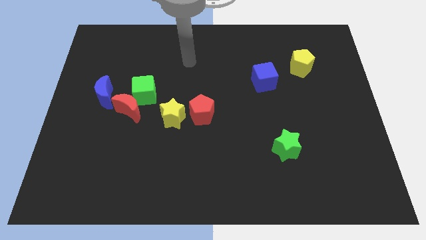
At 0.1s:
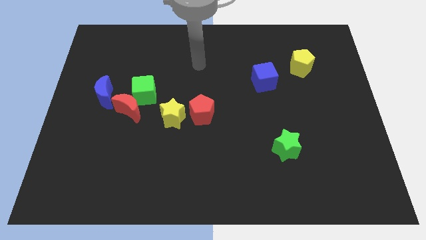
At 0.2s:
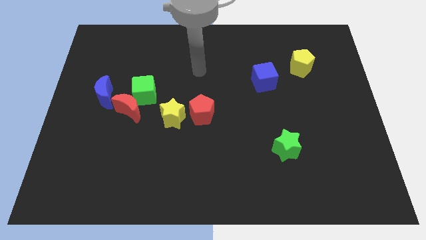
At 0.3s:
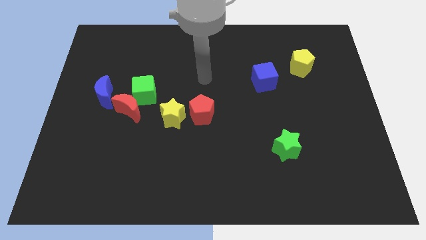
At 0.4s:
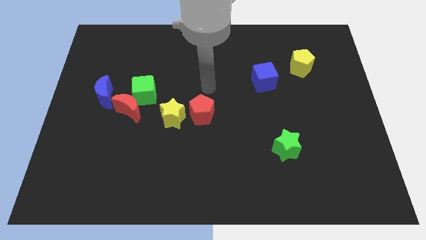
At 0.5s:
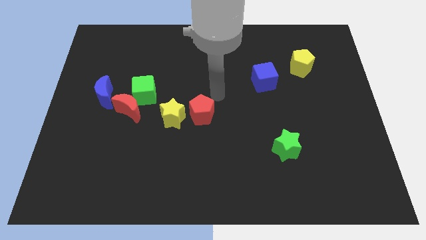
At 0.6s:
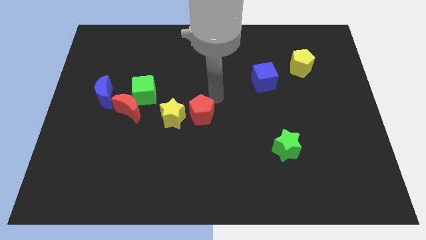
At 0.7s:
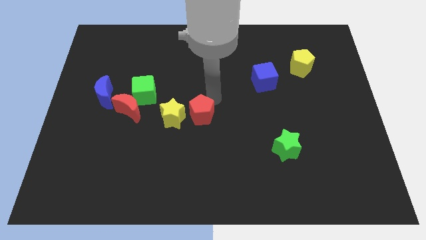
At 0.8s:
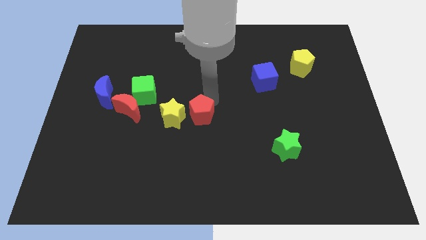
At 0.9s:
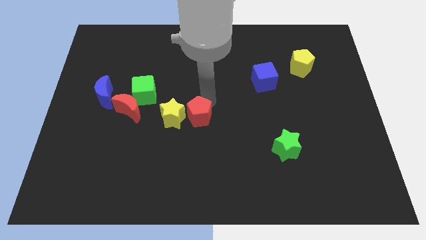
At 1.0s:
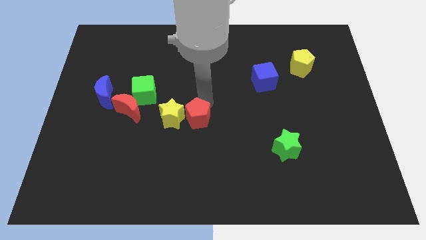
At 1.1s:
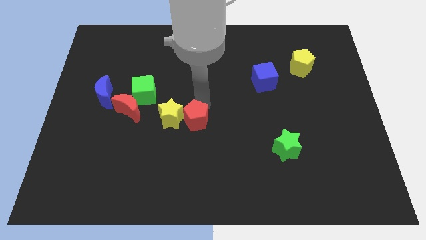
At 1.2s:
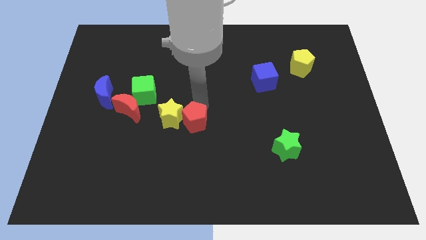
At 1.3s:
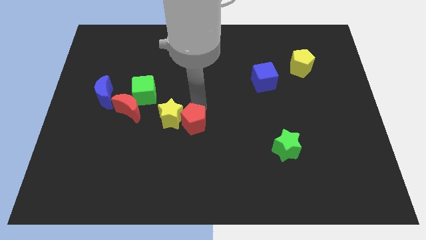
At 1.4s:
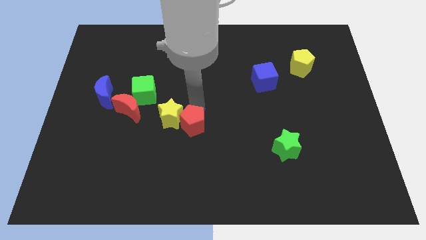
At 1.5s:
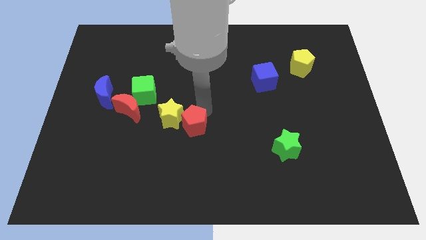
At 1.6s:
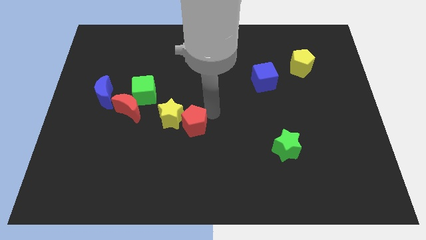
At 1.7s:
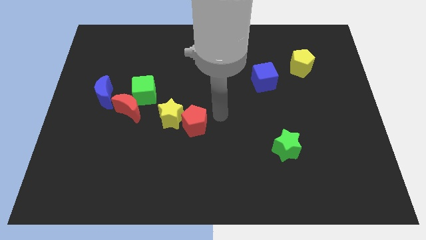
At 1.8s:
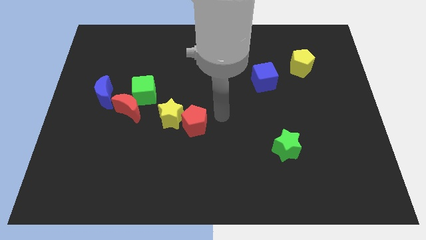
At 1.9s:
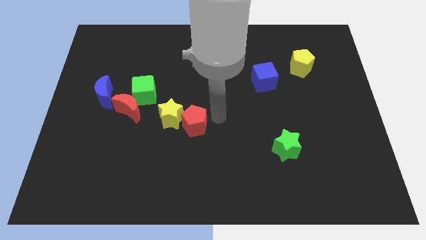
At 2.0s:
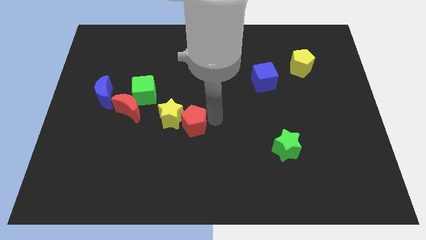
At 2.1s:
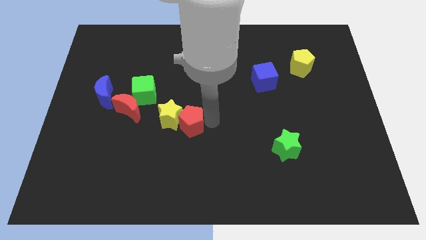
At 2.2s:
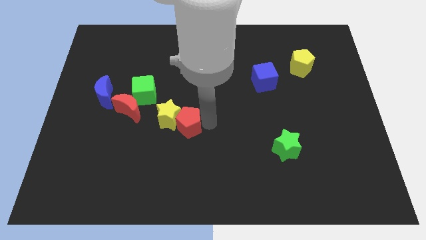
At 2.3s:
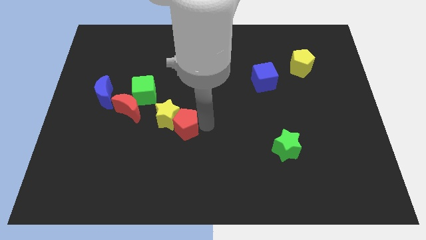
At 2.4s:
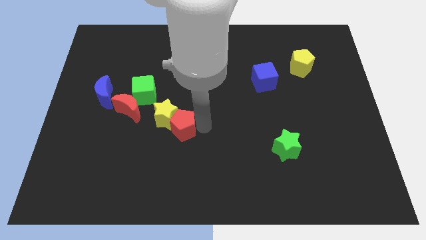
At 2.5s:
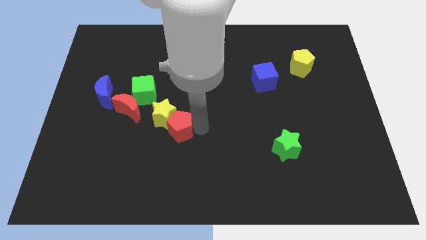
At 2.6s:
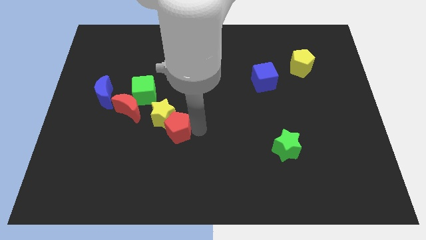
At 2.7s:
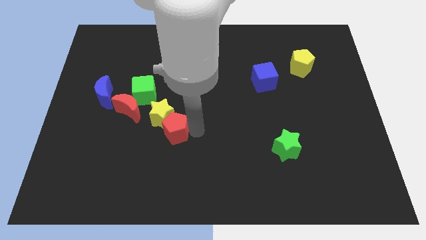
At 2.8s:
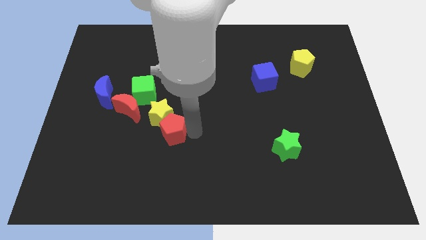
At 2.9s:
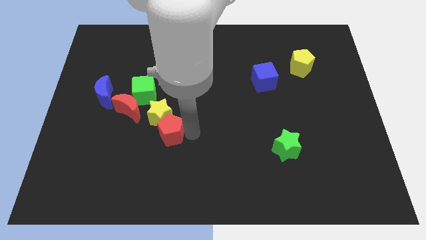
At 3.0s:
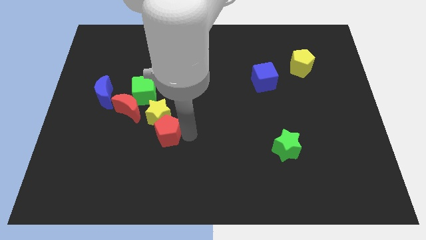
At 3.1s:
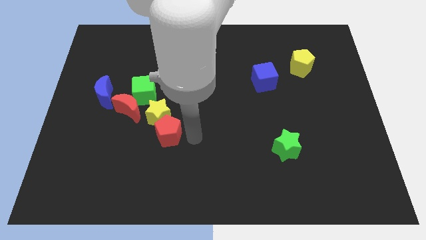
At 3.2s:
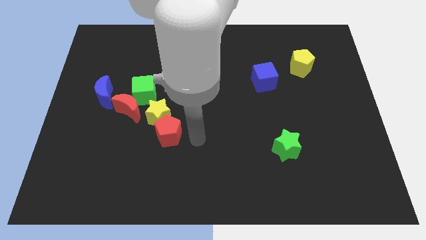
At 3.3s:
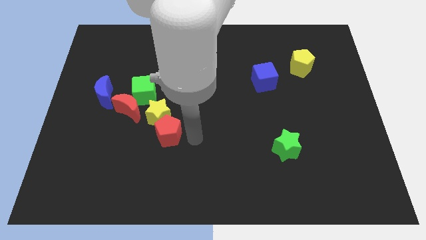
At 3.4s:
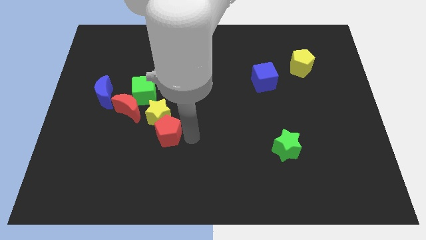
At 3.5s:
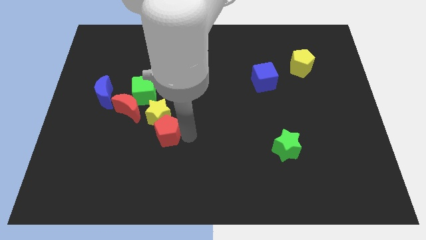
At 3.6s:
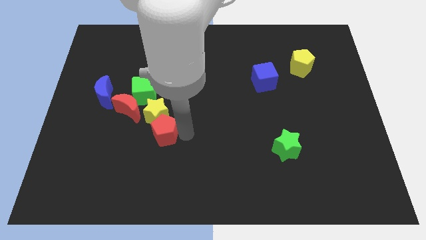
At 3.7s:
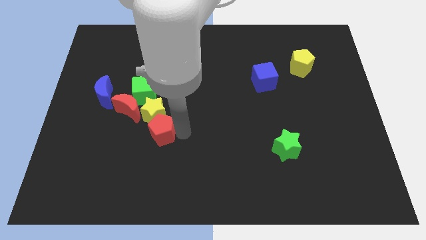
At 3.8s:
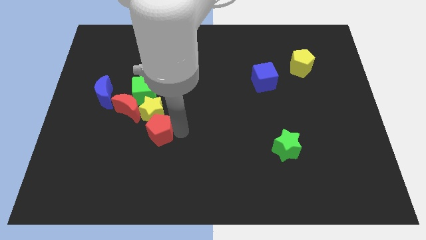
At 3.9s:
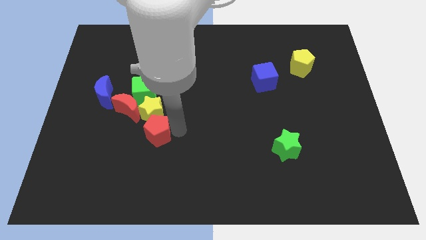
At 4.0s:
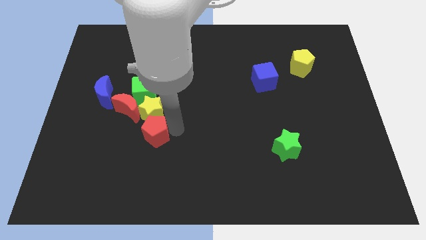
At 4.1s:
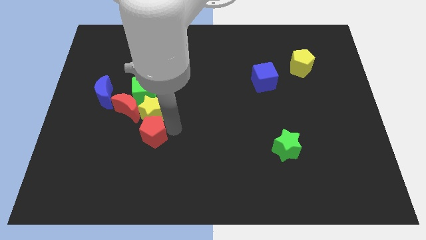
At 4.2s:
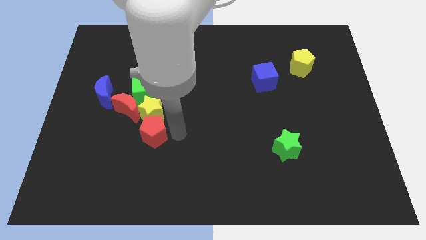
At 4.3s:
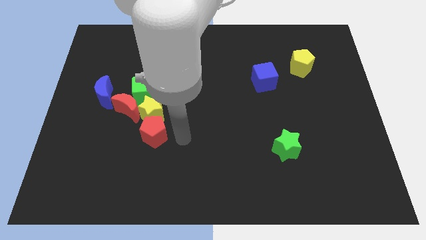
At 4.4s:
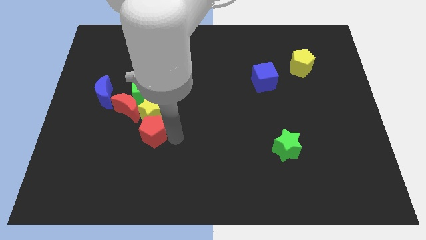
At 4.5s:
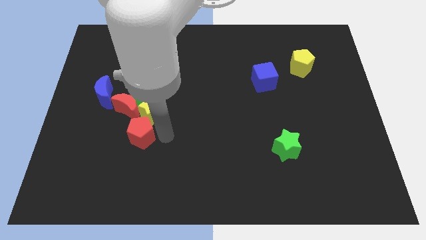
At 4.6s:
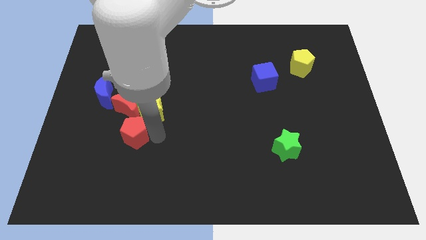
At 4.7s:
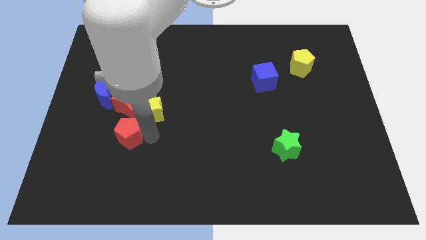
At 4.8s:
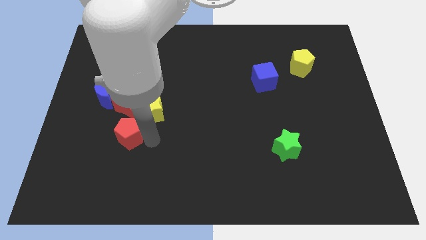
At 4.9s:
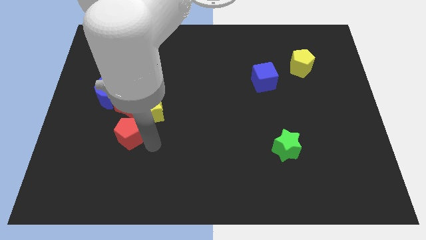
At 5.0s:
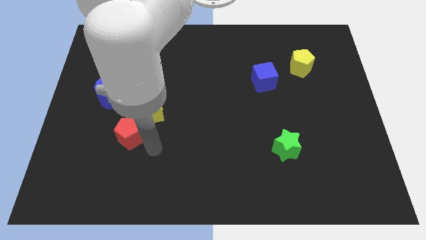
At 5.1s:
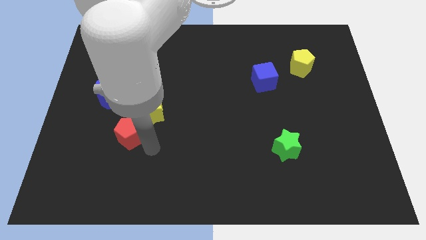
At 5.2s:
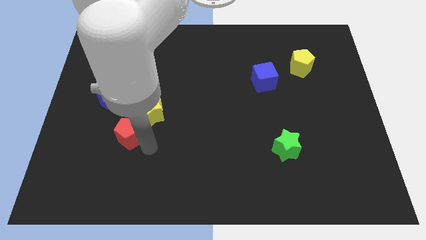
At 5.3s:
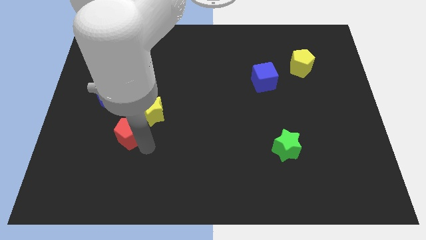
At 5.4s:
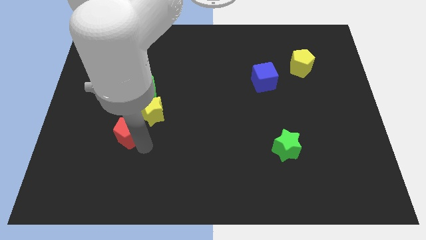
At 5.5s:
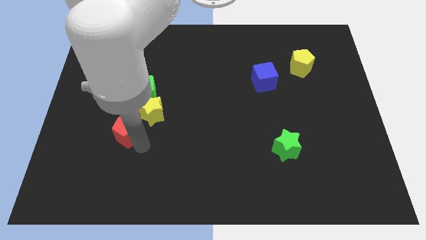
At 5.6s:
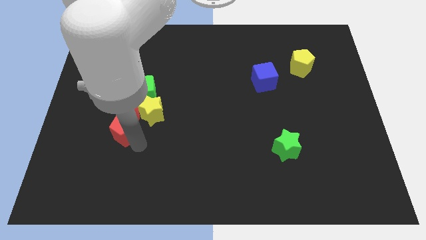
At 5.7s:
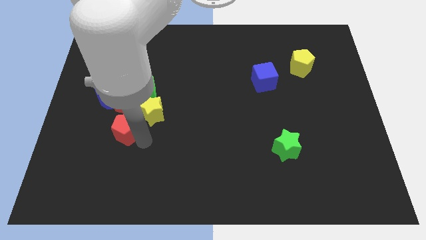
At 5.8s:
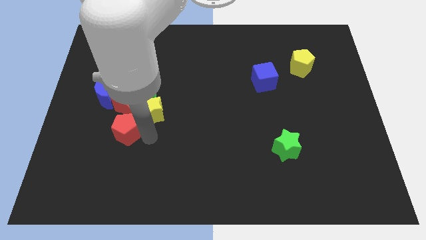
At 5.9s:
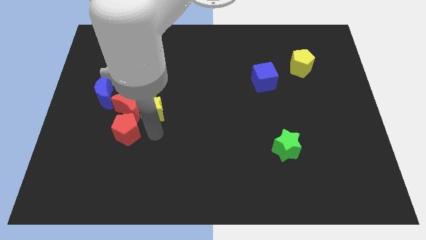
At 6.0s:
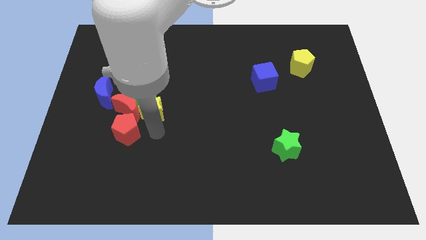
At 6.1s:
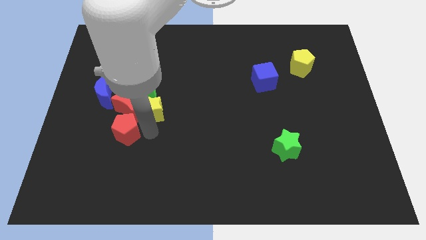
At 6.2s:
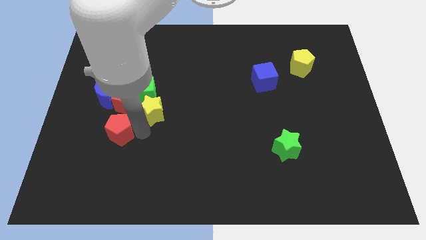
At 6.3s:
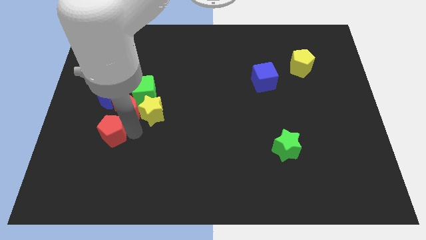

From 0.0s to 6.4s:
put the red pentagon below the blue moon

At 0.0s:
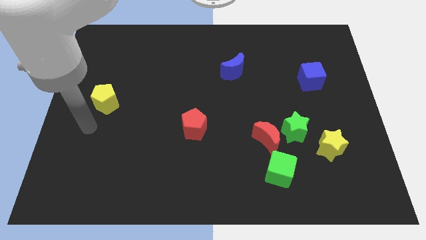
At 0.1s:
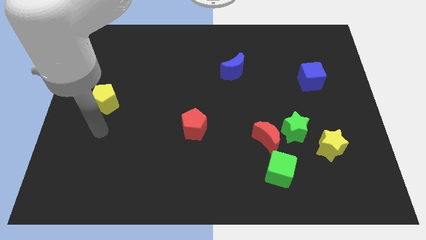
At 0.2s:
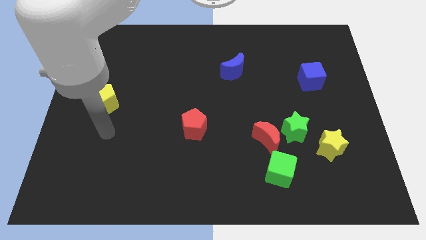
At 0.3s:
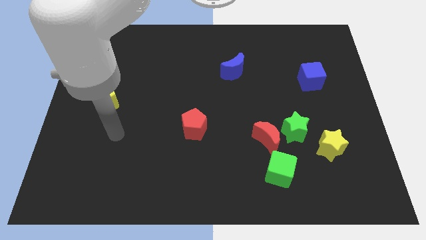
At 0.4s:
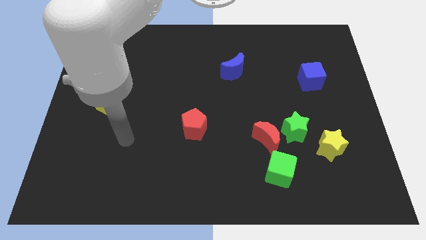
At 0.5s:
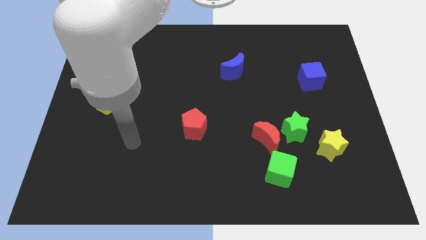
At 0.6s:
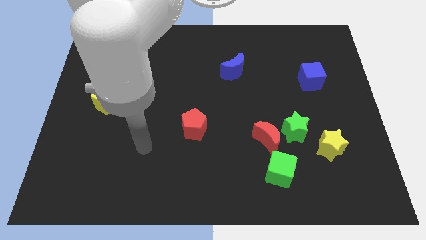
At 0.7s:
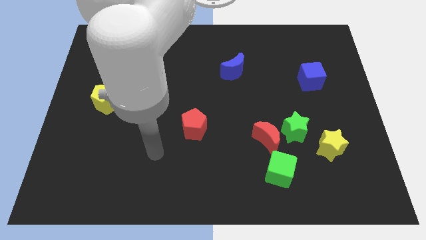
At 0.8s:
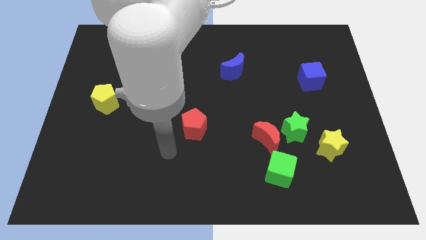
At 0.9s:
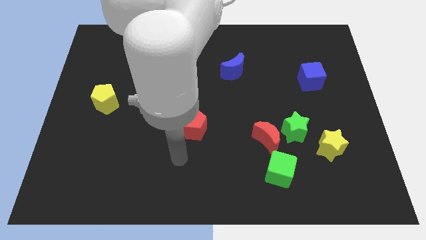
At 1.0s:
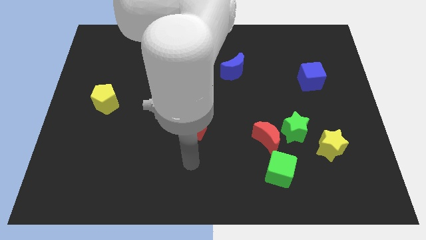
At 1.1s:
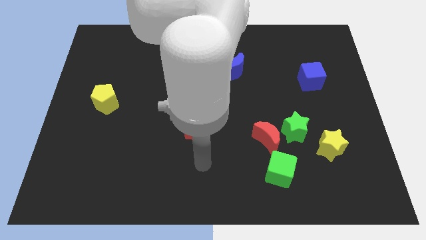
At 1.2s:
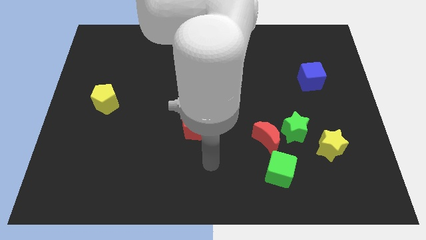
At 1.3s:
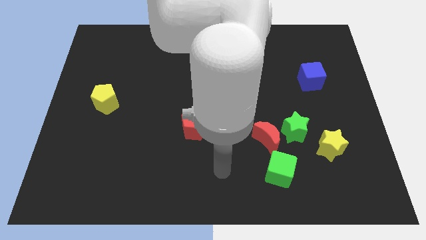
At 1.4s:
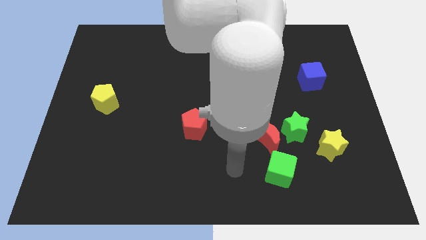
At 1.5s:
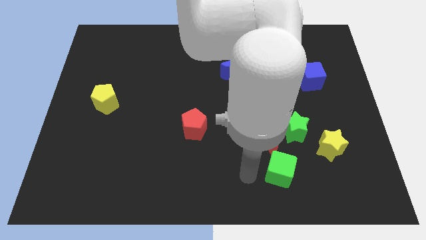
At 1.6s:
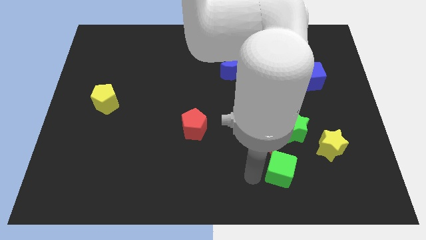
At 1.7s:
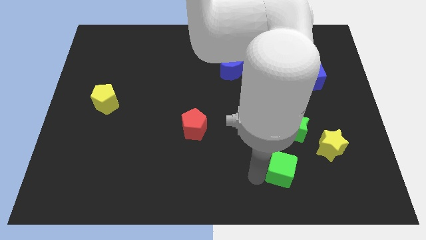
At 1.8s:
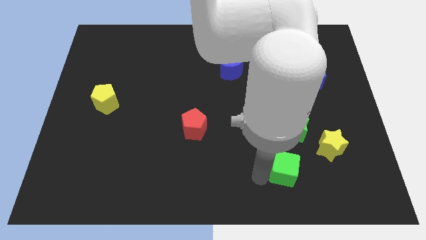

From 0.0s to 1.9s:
push the green cube diagonally down and to the left of the yellow star
